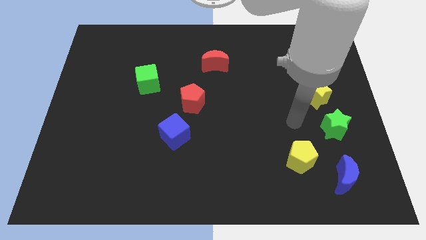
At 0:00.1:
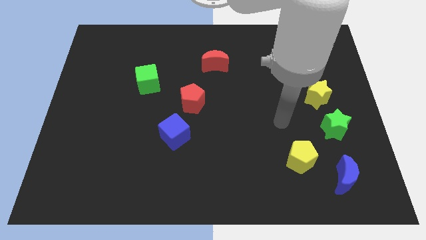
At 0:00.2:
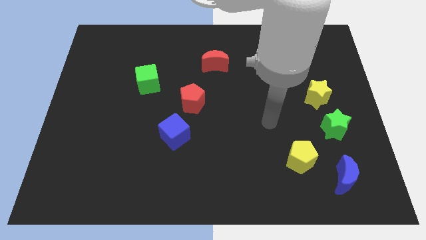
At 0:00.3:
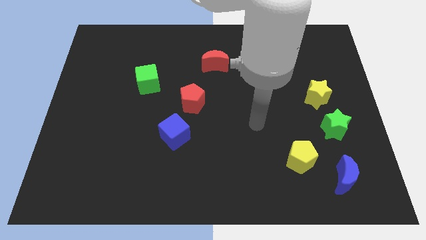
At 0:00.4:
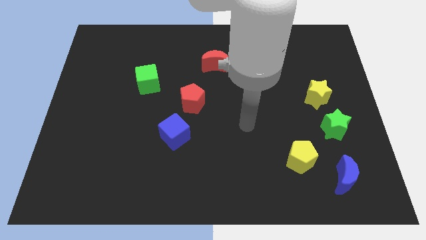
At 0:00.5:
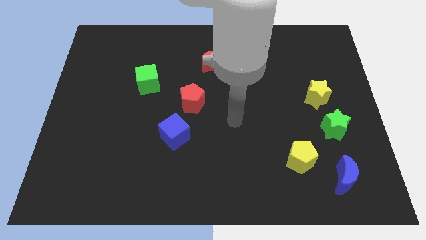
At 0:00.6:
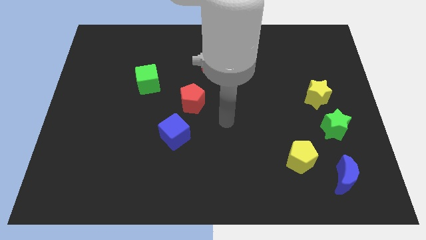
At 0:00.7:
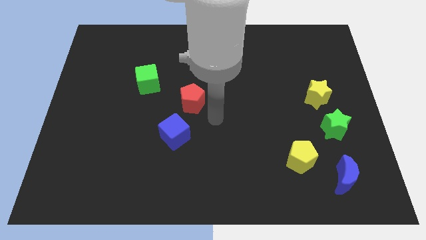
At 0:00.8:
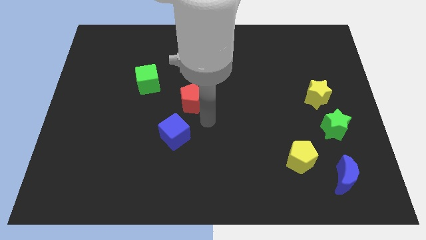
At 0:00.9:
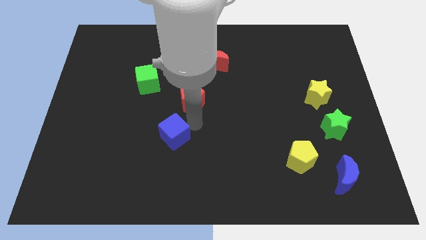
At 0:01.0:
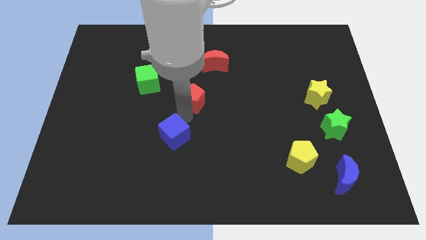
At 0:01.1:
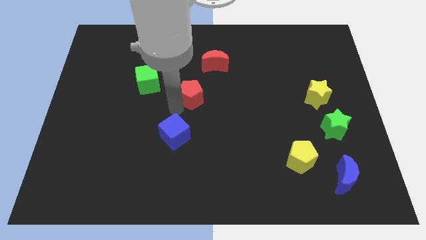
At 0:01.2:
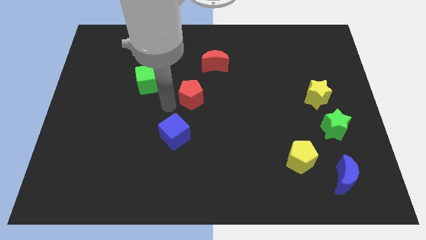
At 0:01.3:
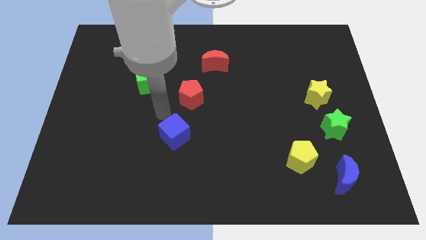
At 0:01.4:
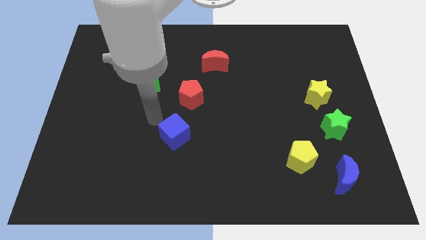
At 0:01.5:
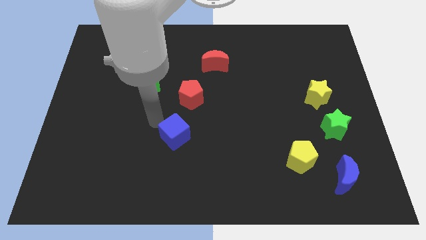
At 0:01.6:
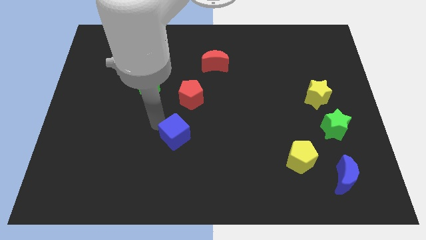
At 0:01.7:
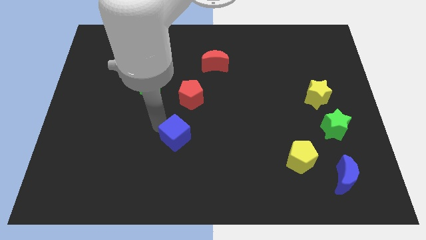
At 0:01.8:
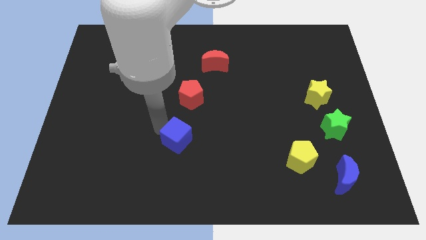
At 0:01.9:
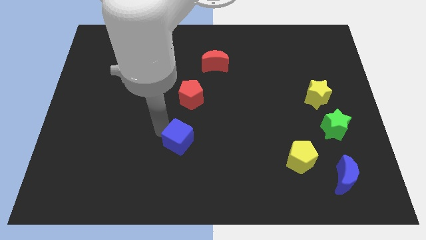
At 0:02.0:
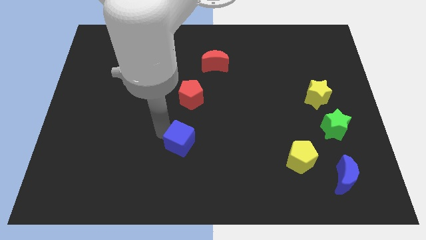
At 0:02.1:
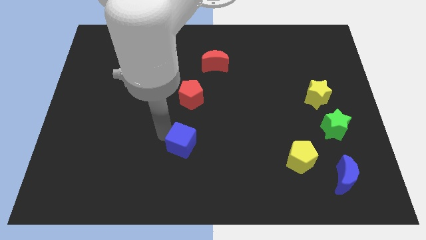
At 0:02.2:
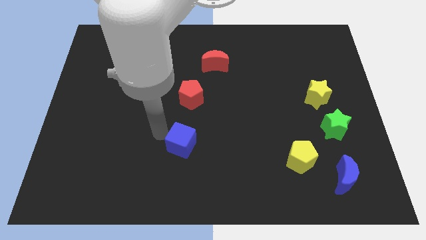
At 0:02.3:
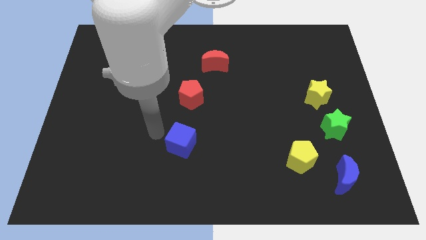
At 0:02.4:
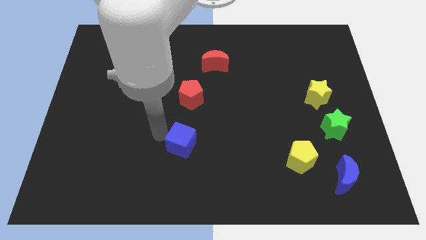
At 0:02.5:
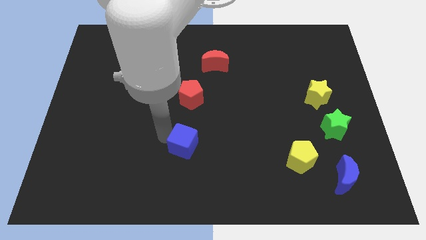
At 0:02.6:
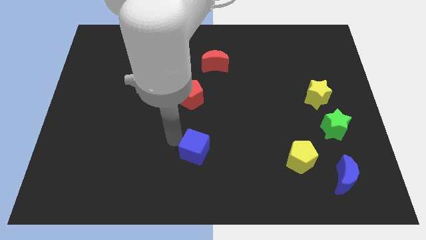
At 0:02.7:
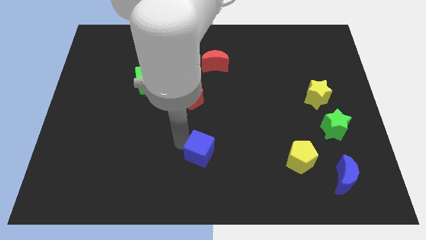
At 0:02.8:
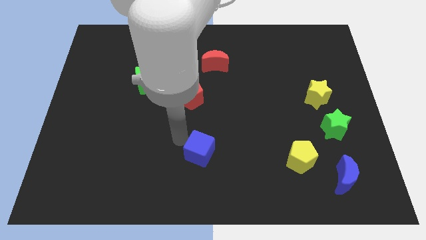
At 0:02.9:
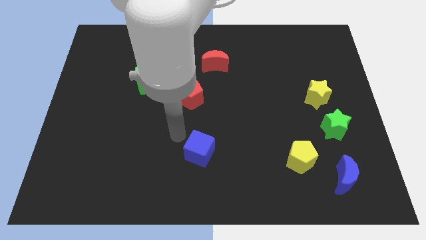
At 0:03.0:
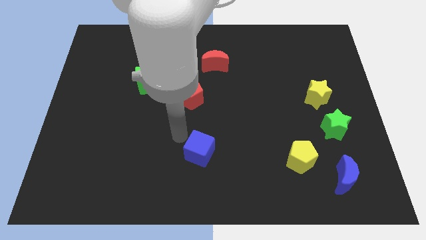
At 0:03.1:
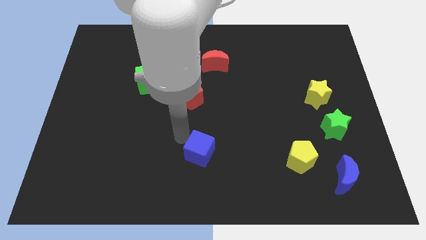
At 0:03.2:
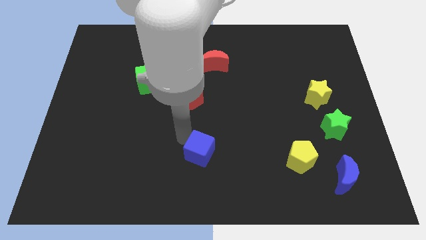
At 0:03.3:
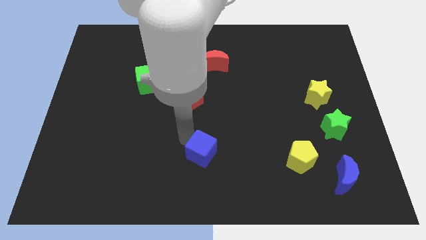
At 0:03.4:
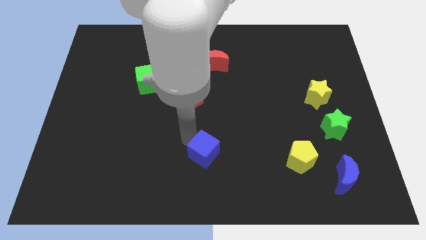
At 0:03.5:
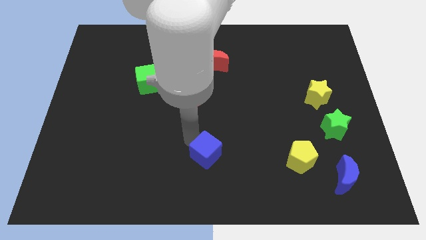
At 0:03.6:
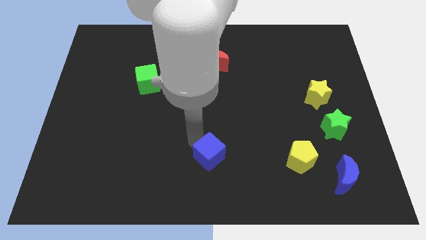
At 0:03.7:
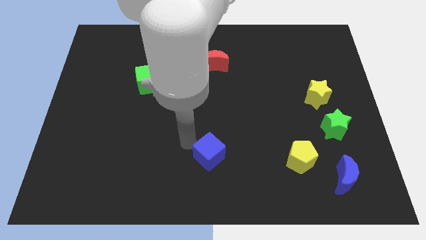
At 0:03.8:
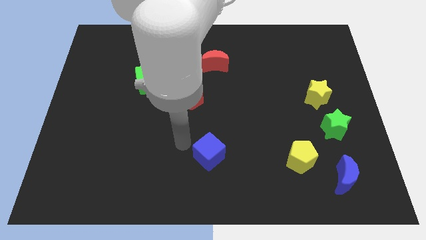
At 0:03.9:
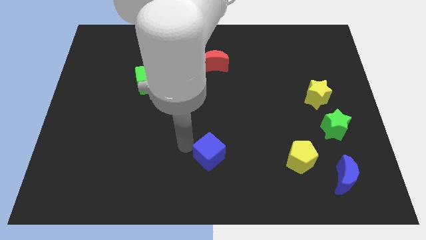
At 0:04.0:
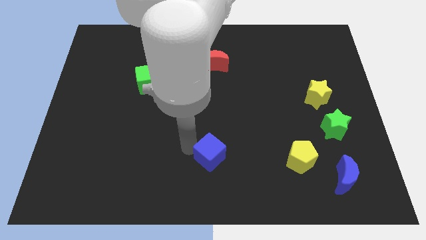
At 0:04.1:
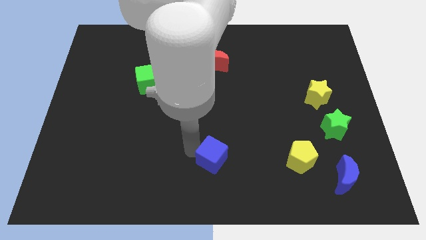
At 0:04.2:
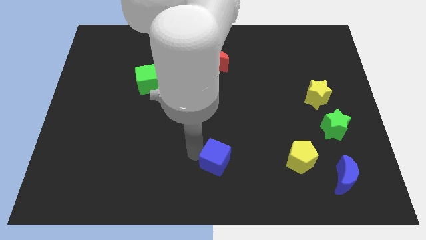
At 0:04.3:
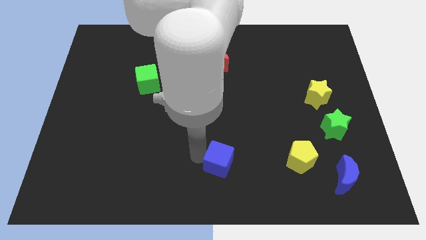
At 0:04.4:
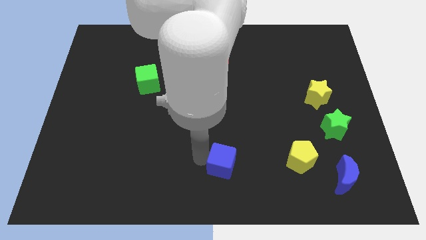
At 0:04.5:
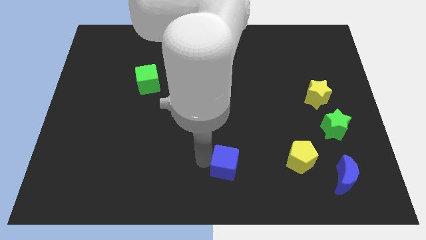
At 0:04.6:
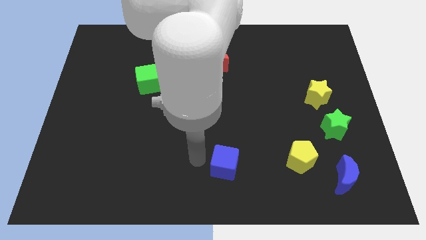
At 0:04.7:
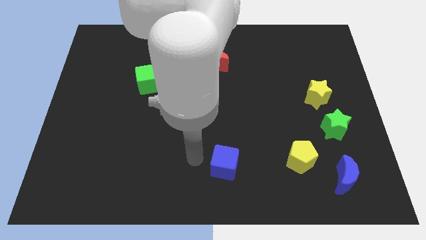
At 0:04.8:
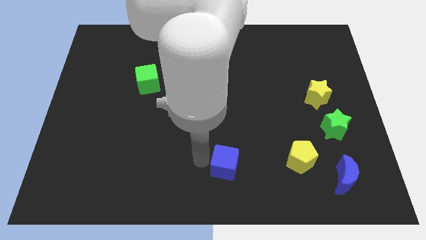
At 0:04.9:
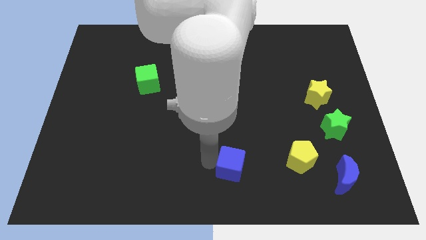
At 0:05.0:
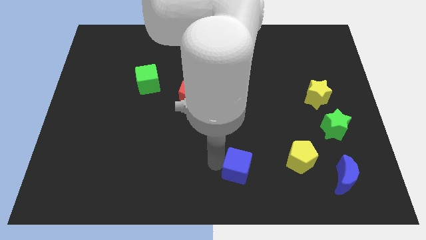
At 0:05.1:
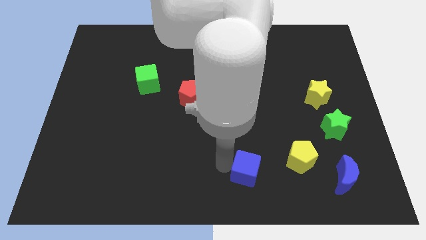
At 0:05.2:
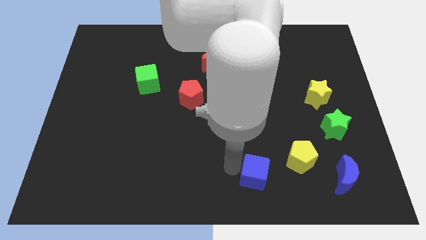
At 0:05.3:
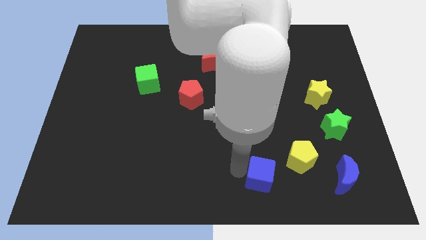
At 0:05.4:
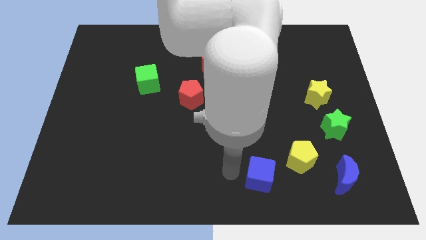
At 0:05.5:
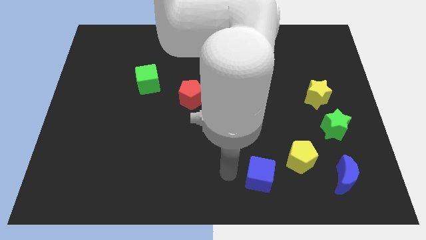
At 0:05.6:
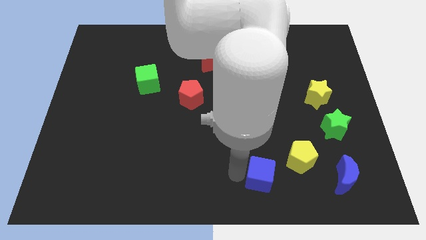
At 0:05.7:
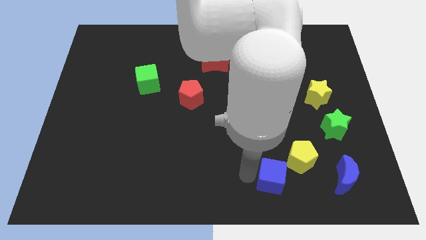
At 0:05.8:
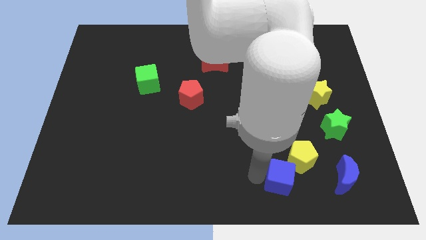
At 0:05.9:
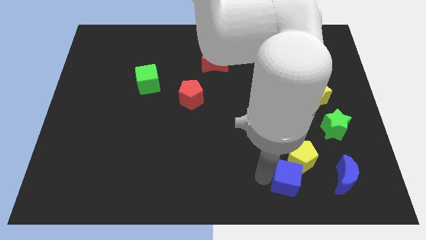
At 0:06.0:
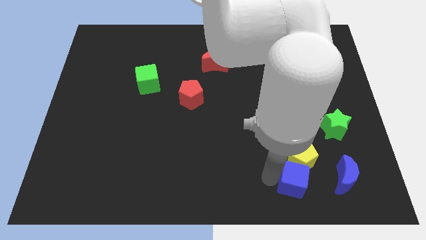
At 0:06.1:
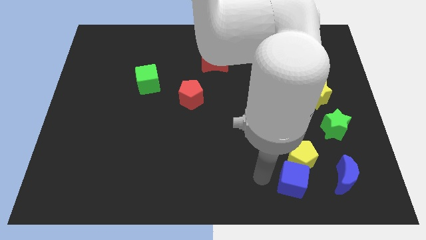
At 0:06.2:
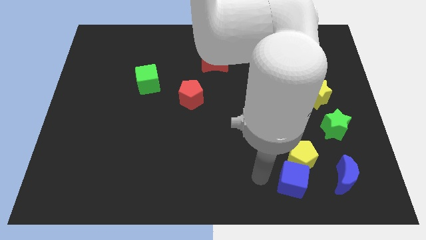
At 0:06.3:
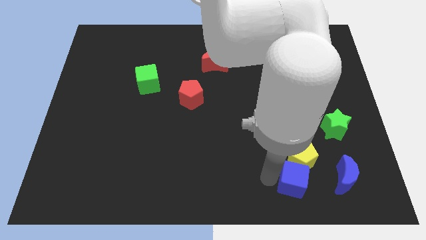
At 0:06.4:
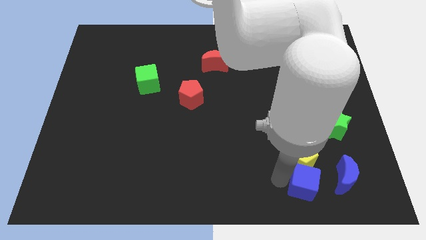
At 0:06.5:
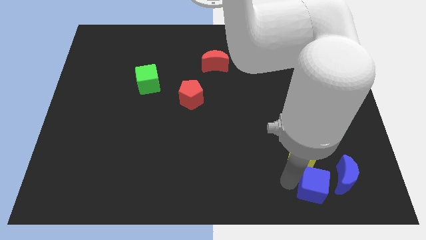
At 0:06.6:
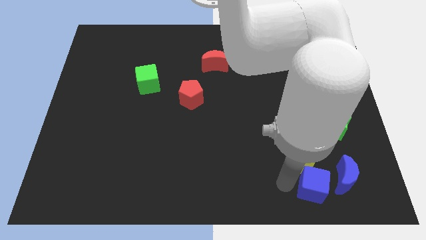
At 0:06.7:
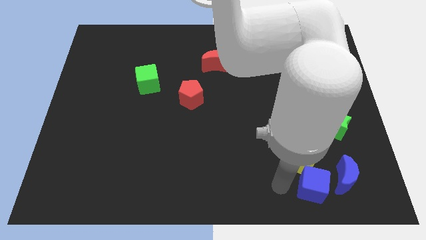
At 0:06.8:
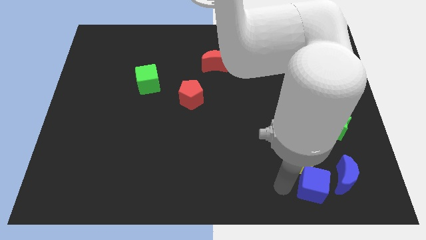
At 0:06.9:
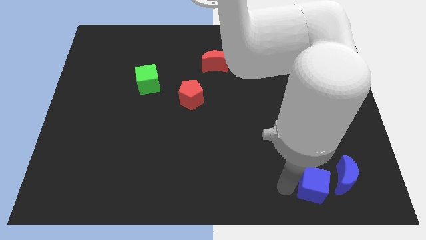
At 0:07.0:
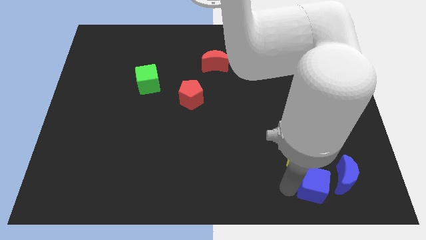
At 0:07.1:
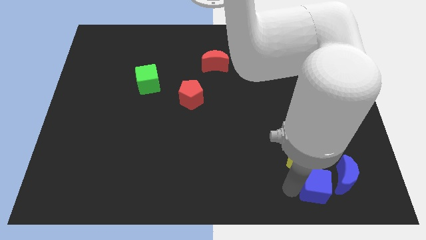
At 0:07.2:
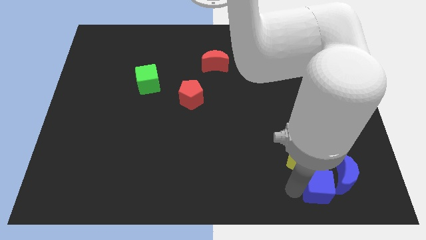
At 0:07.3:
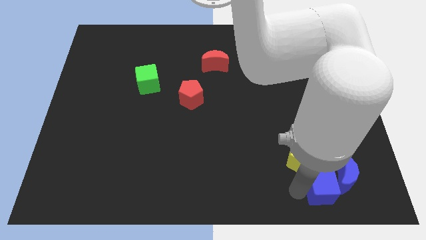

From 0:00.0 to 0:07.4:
push the blue cube close to the blue moon
